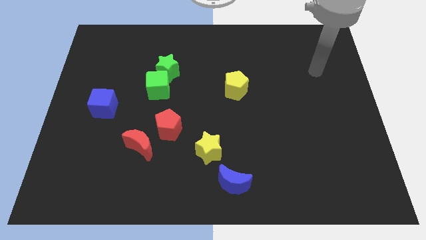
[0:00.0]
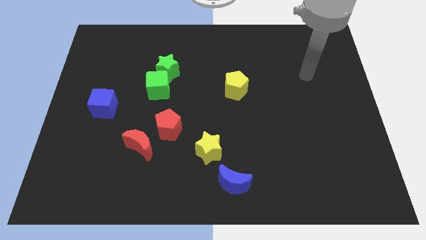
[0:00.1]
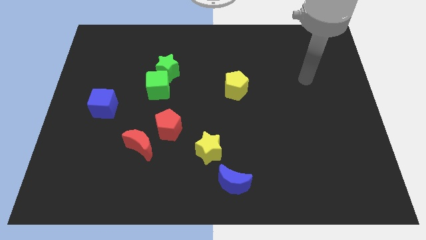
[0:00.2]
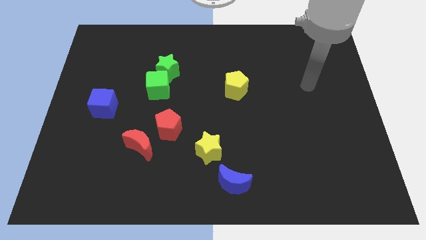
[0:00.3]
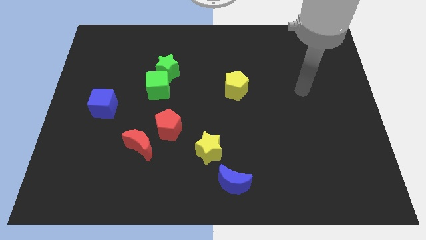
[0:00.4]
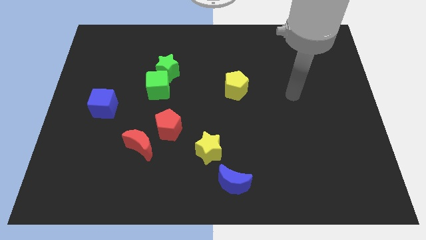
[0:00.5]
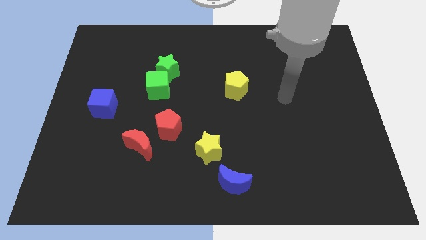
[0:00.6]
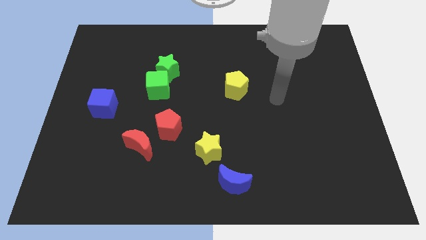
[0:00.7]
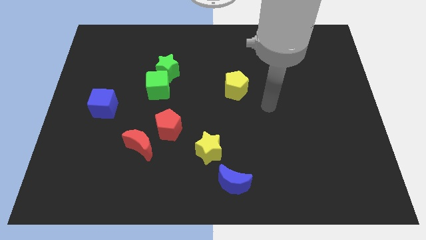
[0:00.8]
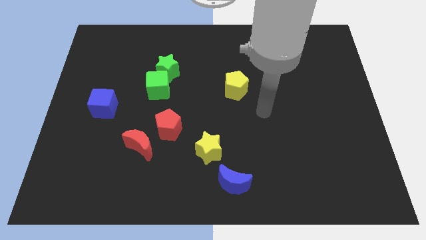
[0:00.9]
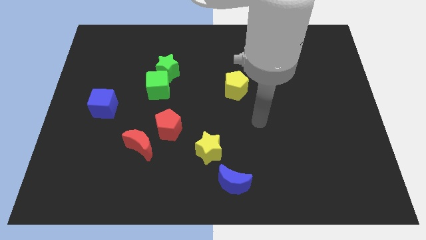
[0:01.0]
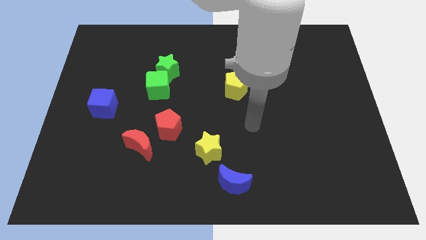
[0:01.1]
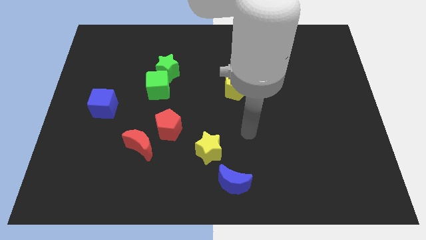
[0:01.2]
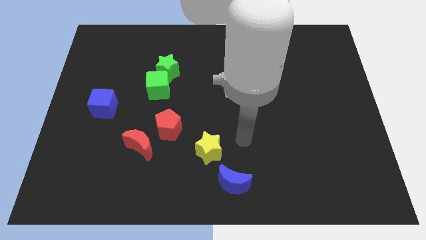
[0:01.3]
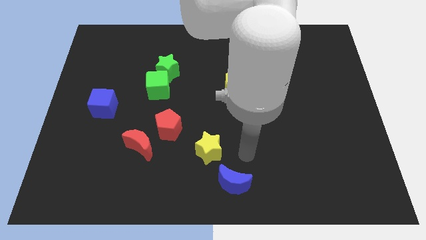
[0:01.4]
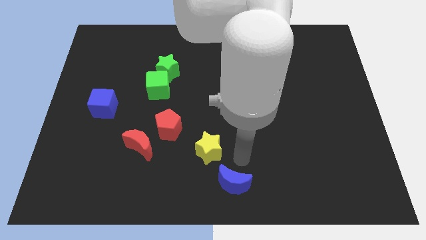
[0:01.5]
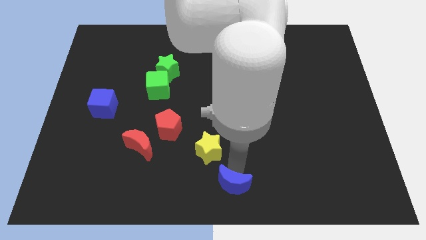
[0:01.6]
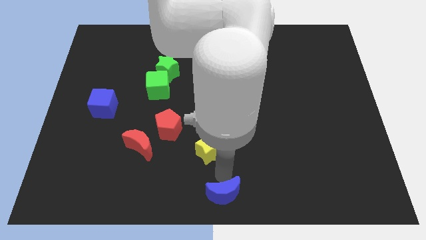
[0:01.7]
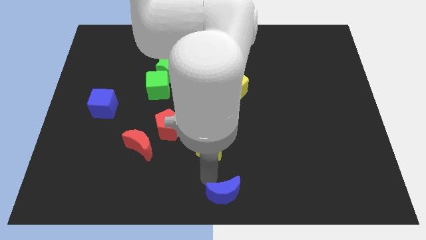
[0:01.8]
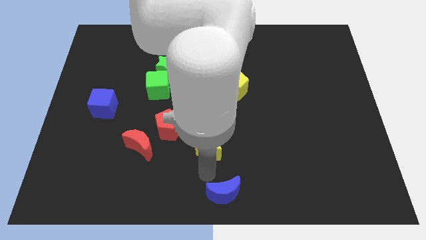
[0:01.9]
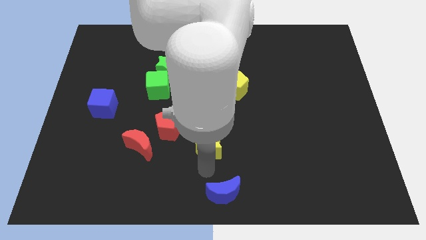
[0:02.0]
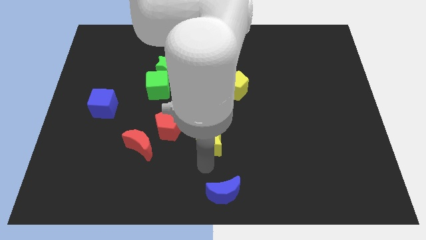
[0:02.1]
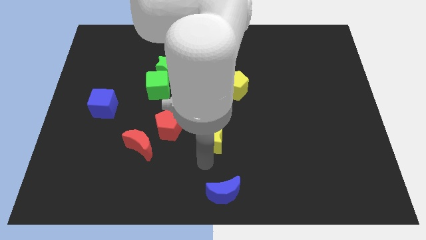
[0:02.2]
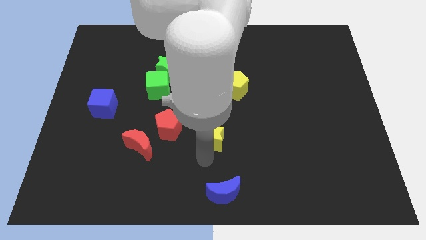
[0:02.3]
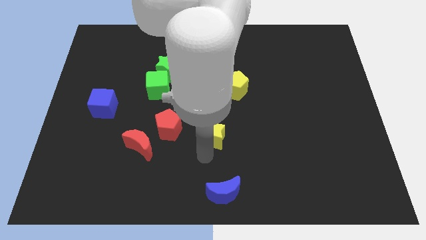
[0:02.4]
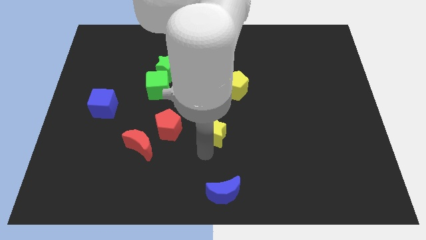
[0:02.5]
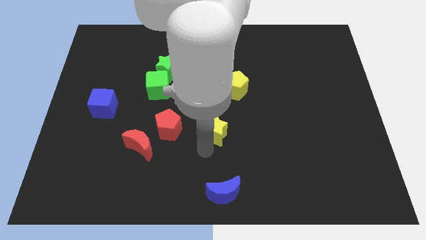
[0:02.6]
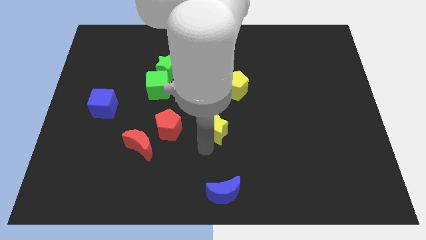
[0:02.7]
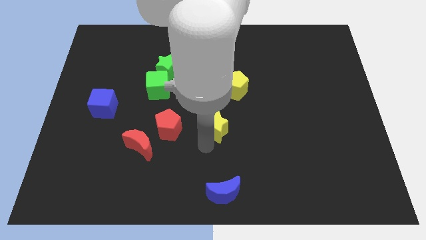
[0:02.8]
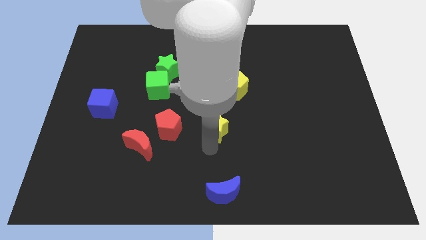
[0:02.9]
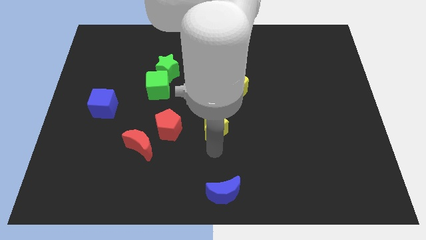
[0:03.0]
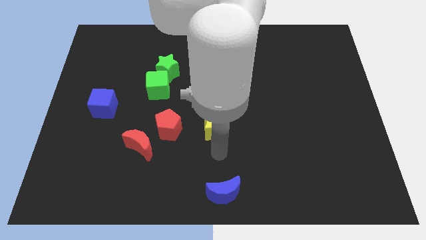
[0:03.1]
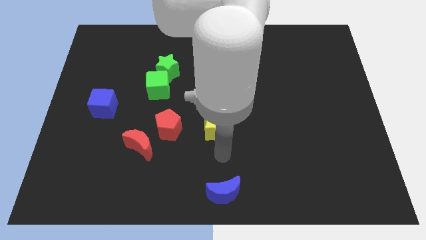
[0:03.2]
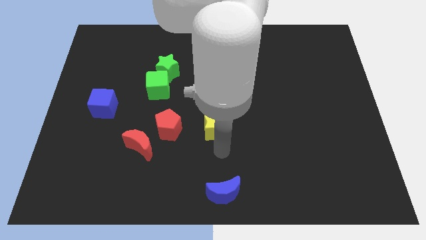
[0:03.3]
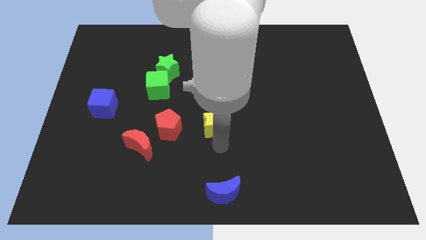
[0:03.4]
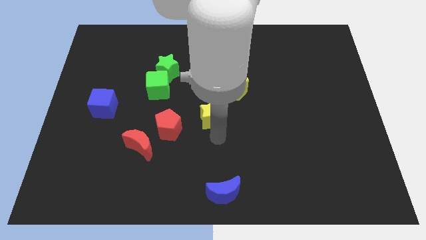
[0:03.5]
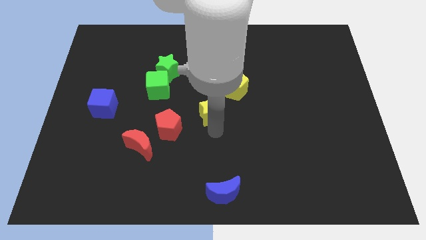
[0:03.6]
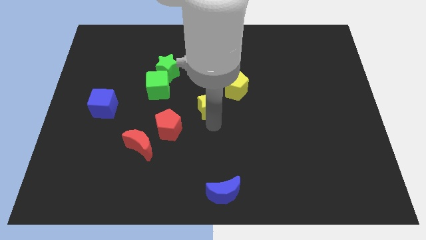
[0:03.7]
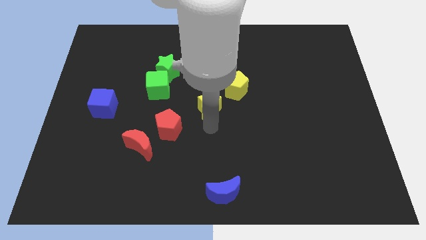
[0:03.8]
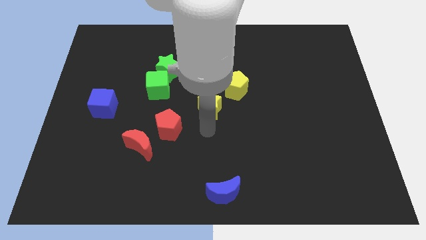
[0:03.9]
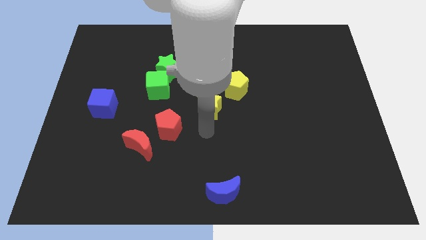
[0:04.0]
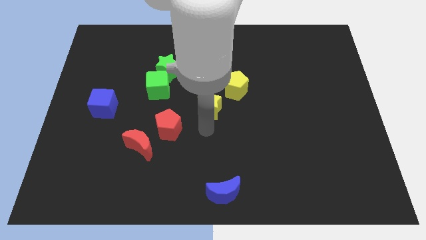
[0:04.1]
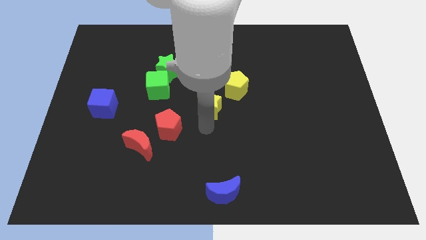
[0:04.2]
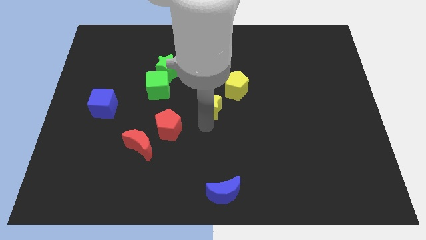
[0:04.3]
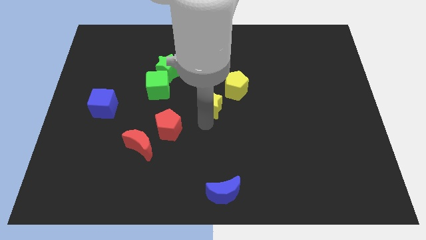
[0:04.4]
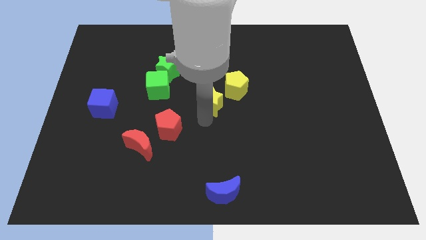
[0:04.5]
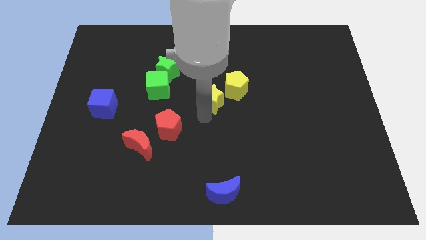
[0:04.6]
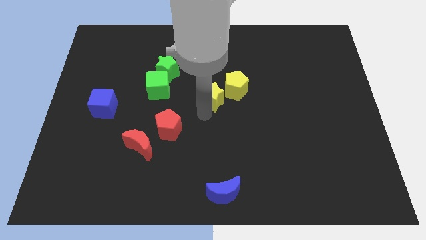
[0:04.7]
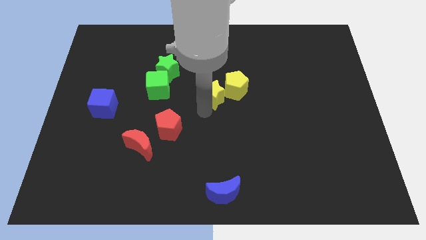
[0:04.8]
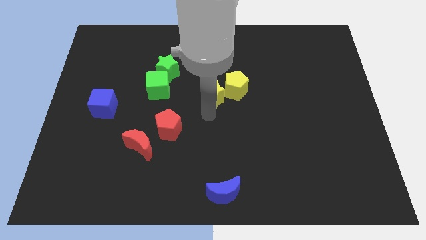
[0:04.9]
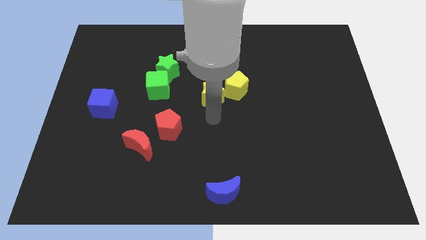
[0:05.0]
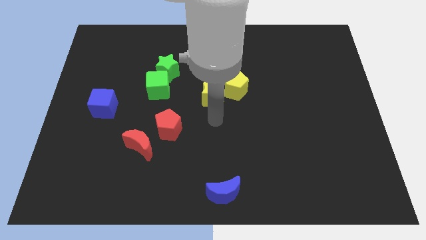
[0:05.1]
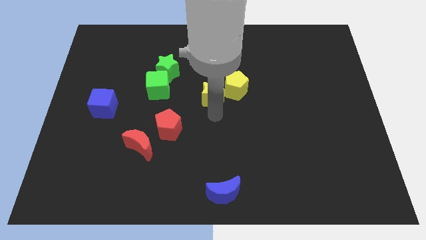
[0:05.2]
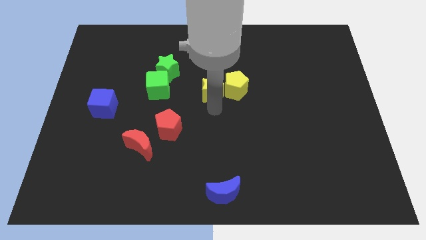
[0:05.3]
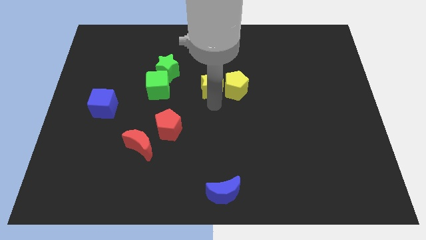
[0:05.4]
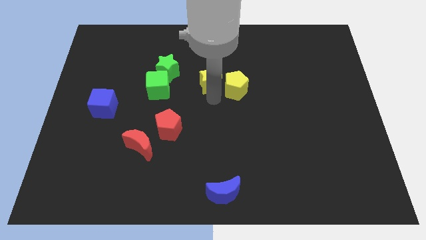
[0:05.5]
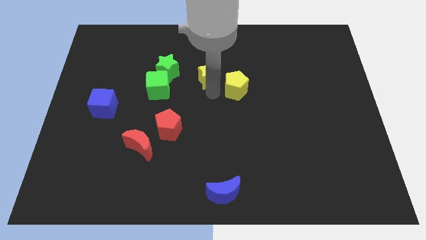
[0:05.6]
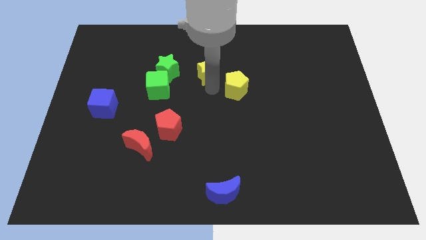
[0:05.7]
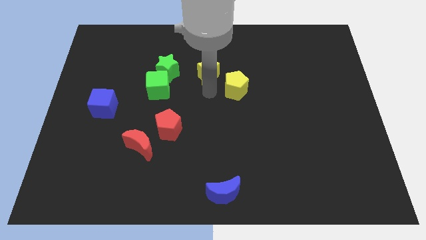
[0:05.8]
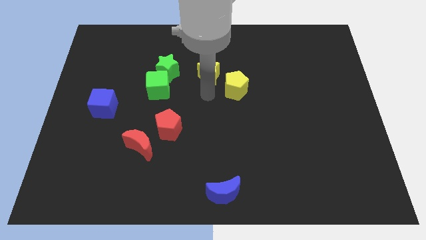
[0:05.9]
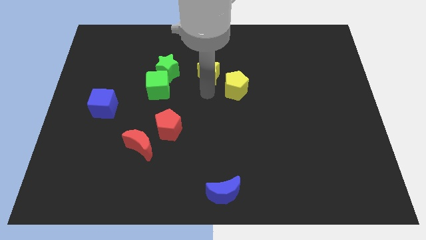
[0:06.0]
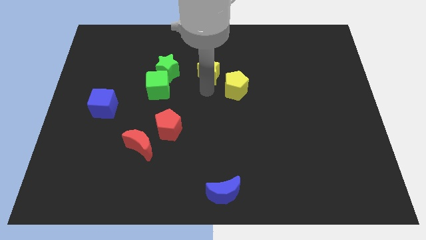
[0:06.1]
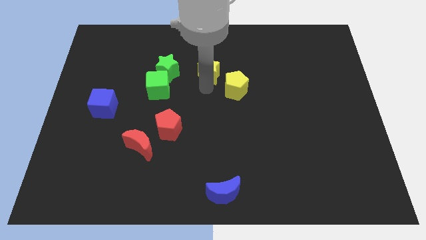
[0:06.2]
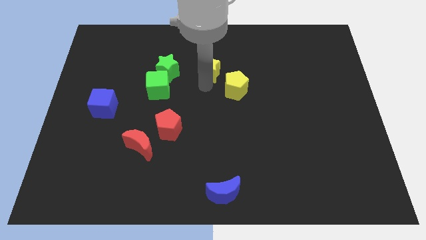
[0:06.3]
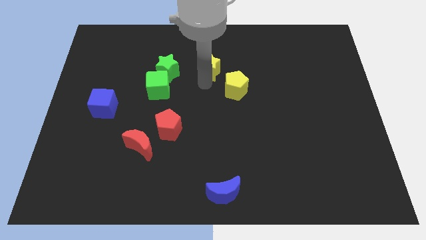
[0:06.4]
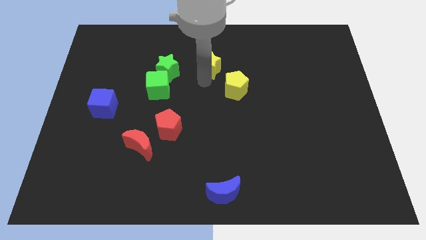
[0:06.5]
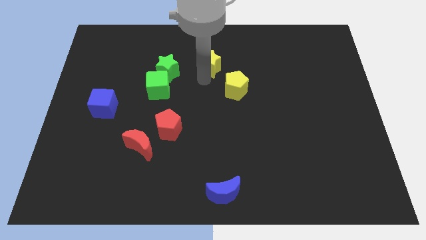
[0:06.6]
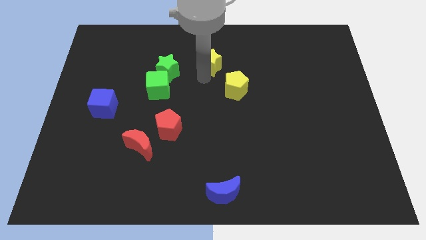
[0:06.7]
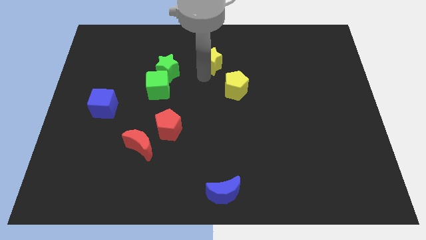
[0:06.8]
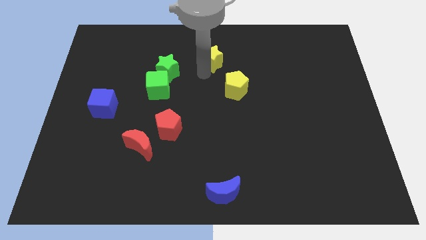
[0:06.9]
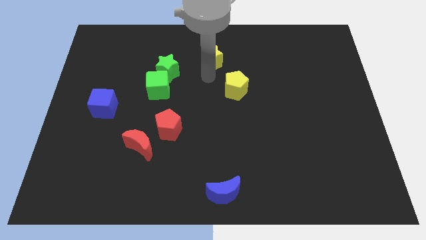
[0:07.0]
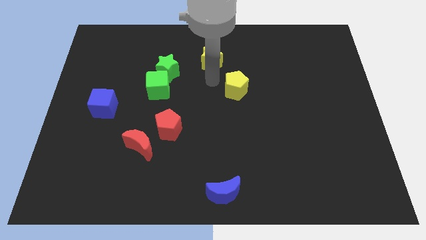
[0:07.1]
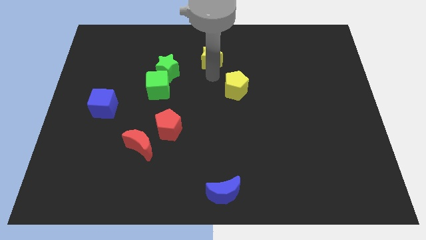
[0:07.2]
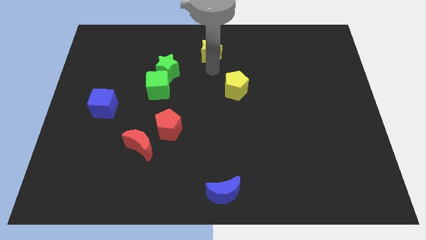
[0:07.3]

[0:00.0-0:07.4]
move the yellow star to the towards your base
